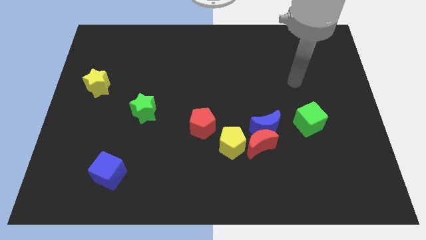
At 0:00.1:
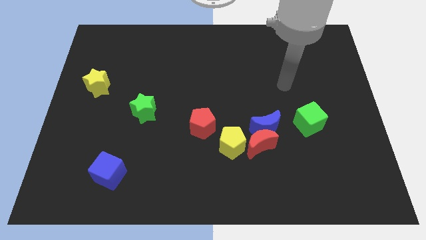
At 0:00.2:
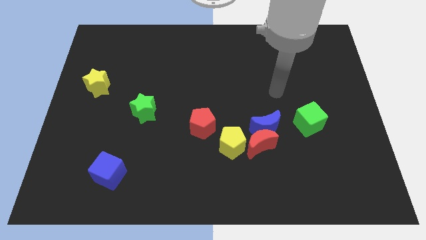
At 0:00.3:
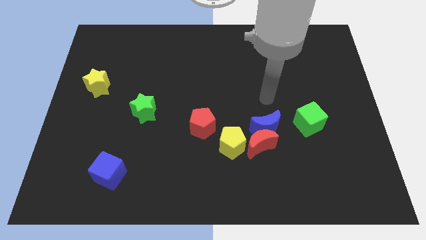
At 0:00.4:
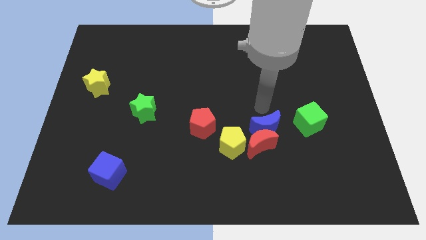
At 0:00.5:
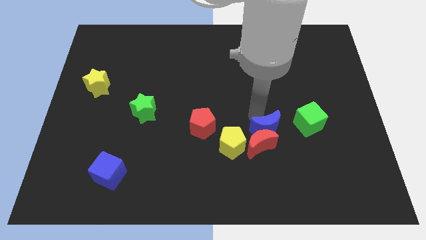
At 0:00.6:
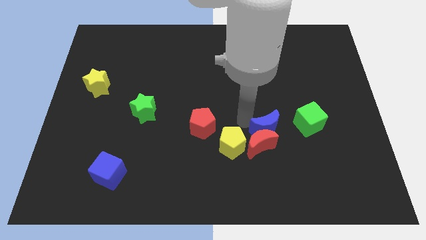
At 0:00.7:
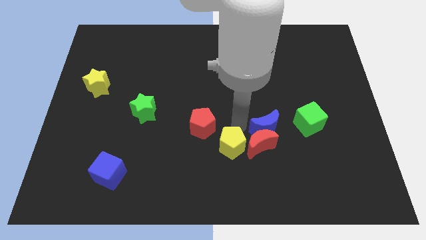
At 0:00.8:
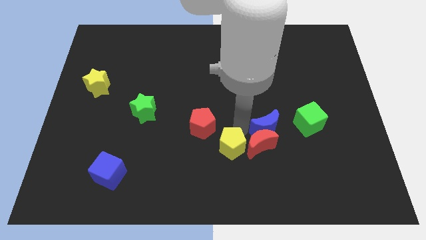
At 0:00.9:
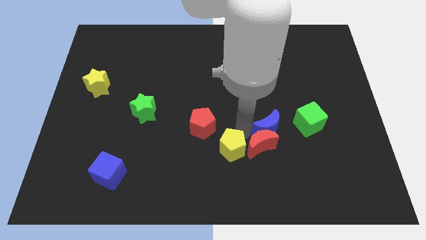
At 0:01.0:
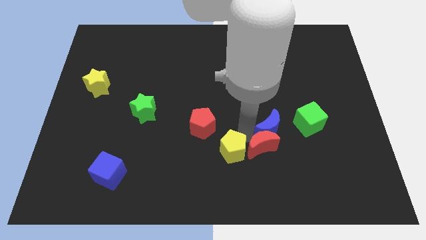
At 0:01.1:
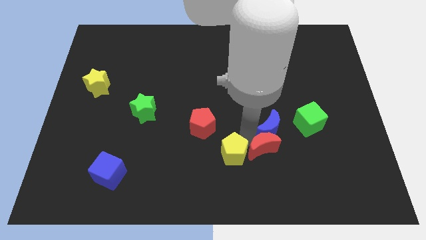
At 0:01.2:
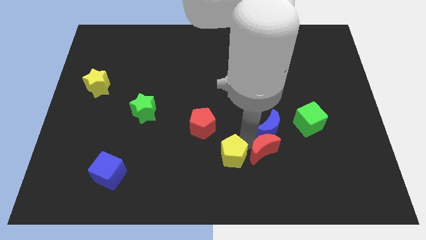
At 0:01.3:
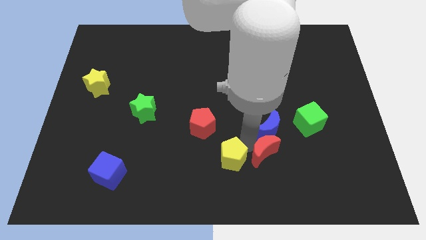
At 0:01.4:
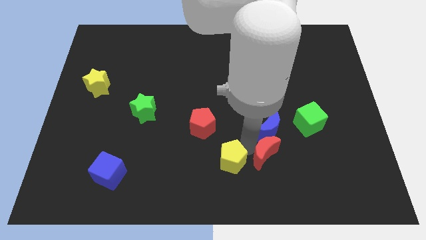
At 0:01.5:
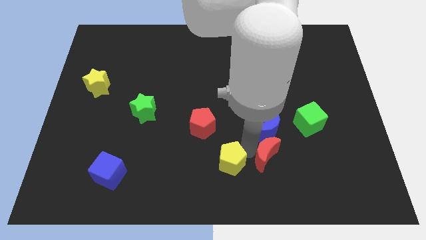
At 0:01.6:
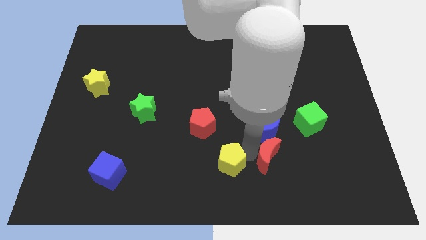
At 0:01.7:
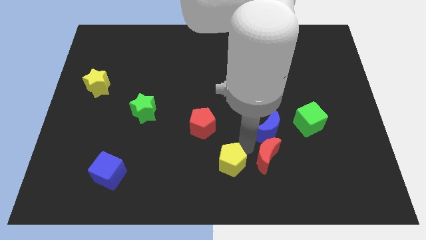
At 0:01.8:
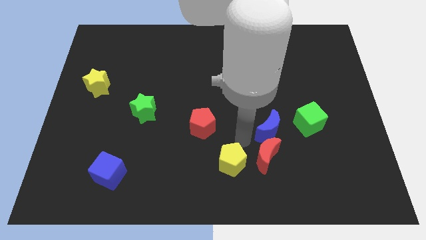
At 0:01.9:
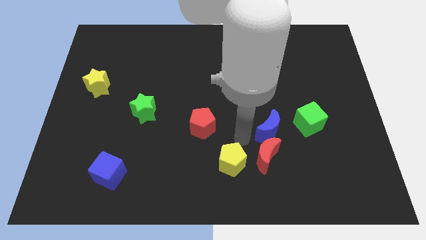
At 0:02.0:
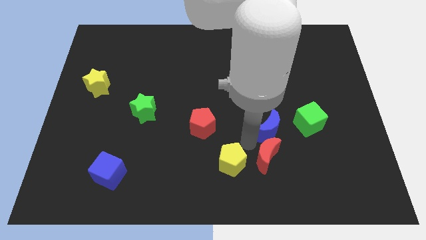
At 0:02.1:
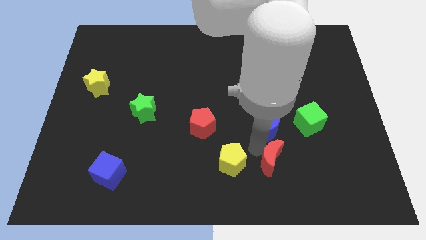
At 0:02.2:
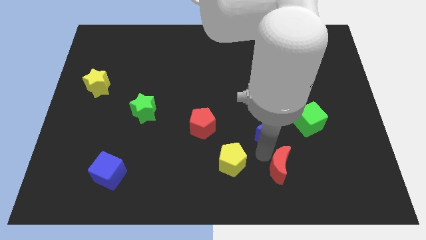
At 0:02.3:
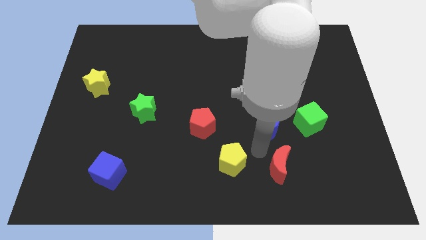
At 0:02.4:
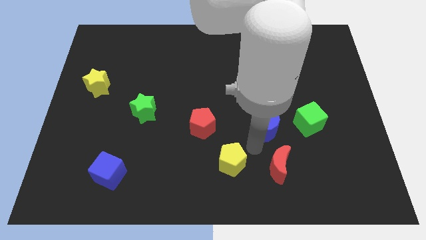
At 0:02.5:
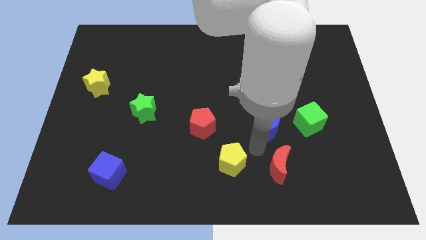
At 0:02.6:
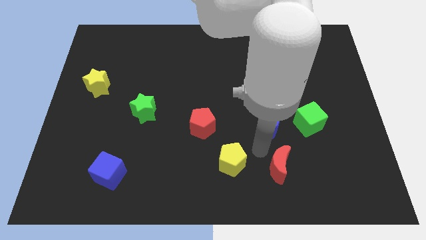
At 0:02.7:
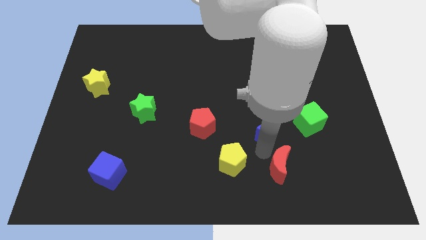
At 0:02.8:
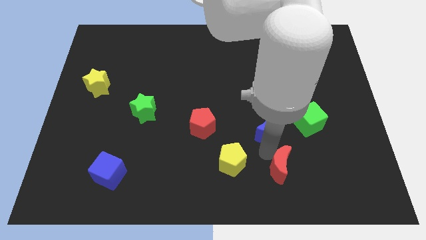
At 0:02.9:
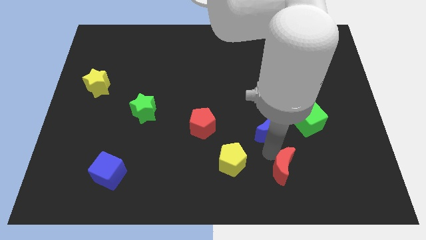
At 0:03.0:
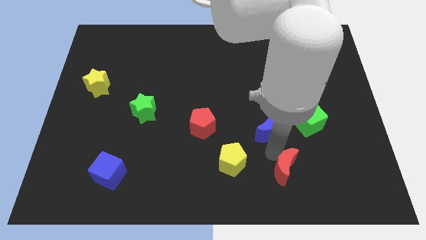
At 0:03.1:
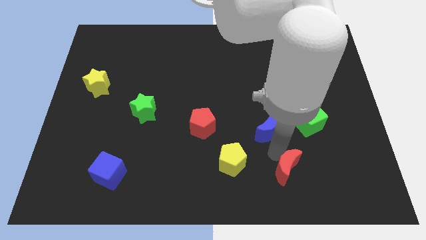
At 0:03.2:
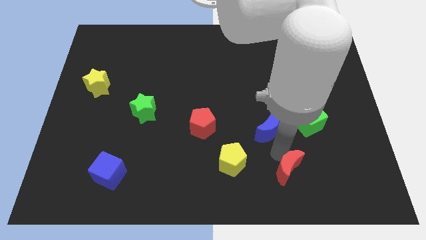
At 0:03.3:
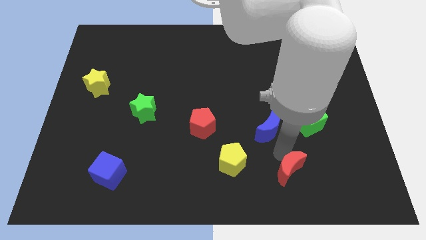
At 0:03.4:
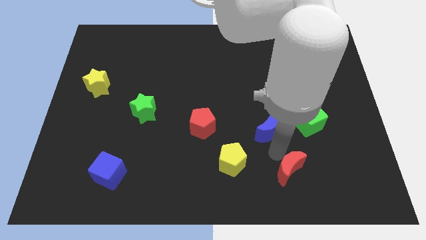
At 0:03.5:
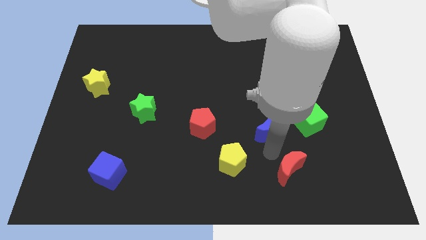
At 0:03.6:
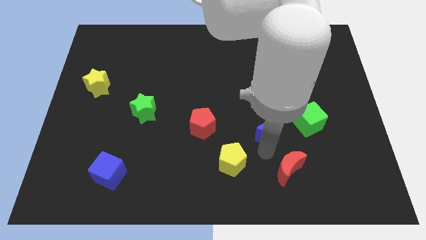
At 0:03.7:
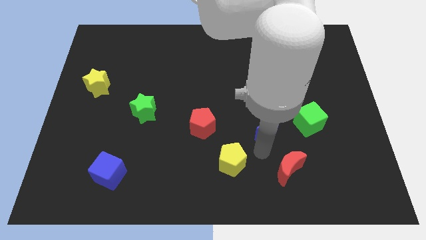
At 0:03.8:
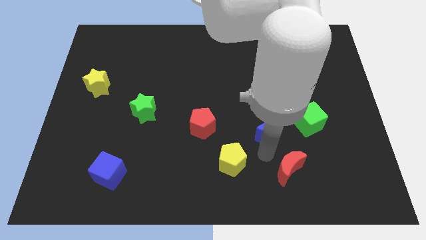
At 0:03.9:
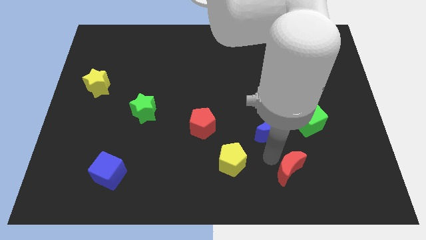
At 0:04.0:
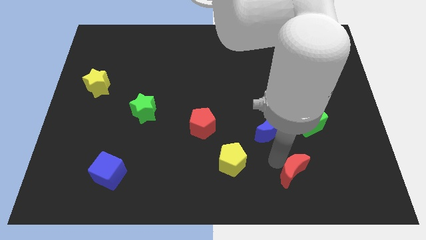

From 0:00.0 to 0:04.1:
pull the red moon apart from the blue moon and yellow pentagon

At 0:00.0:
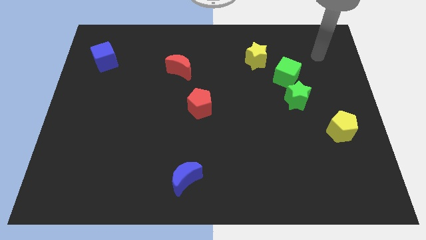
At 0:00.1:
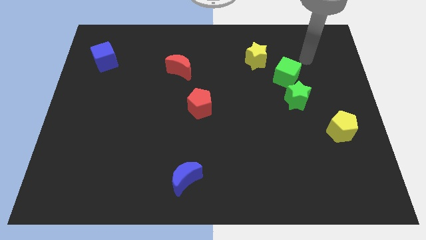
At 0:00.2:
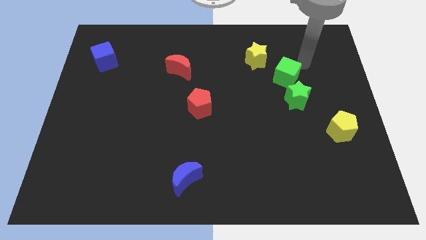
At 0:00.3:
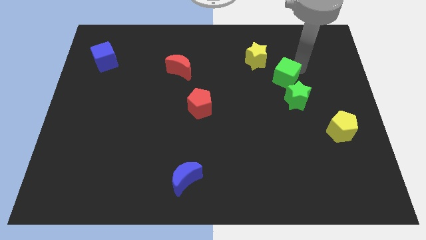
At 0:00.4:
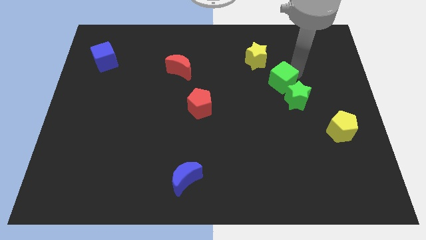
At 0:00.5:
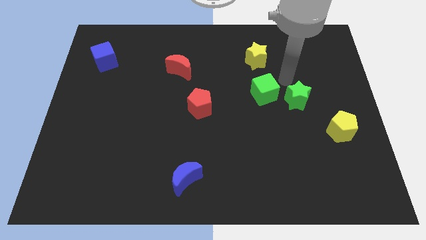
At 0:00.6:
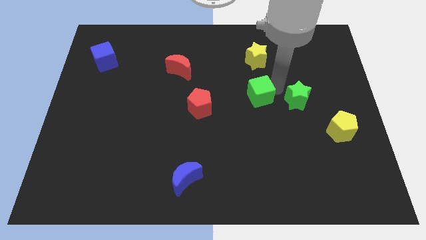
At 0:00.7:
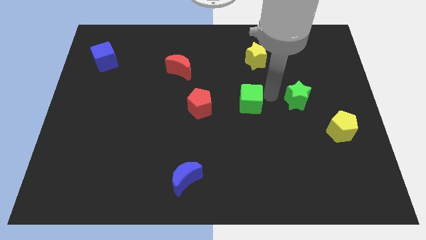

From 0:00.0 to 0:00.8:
separate the green star from the green cube

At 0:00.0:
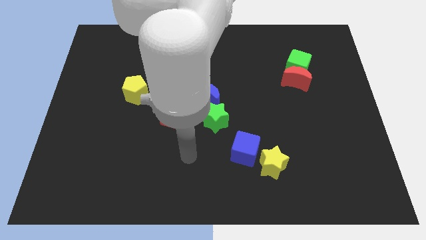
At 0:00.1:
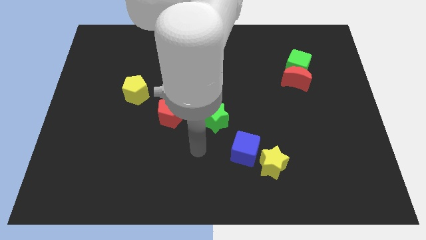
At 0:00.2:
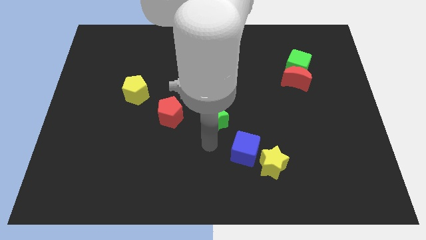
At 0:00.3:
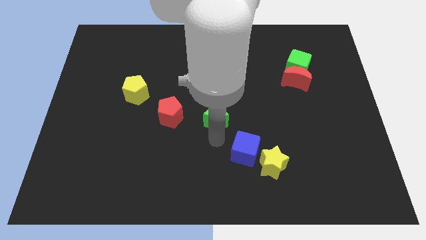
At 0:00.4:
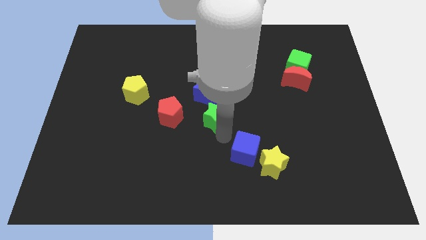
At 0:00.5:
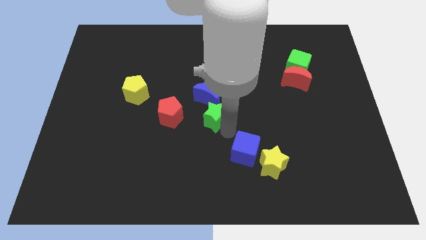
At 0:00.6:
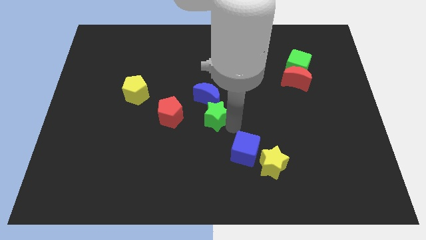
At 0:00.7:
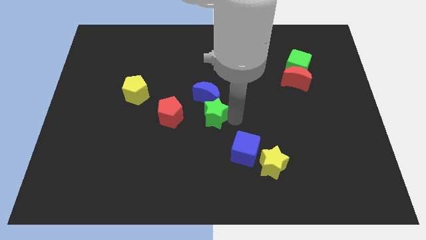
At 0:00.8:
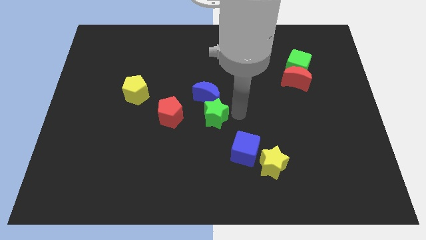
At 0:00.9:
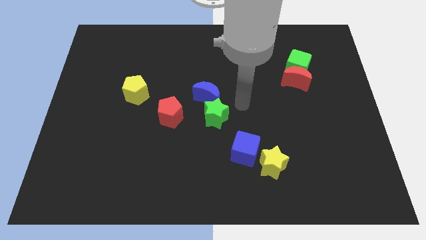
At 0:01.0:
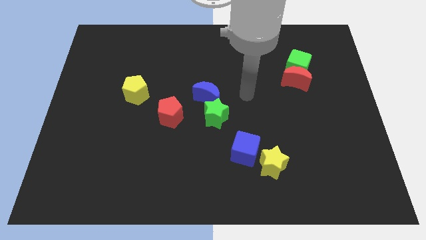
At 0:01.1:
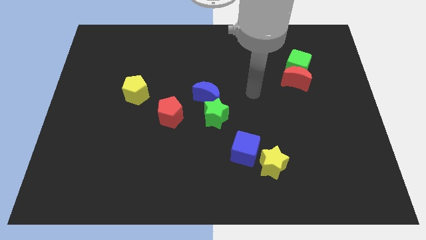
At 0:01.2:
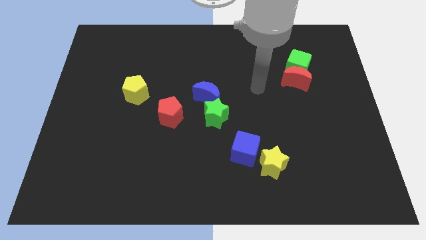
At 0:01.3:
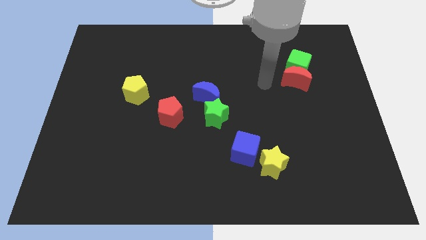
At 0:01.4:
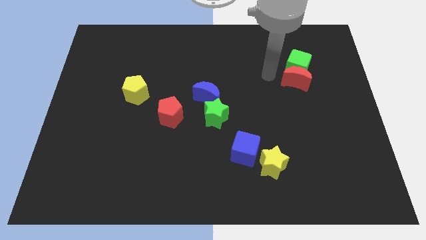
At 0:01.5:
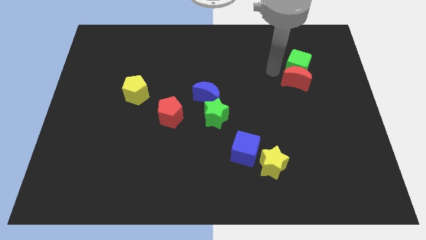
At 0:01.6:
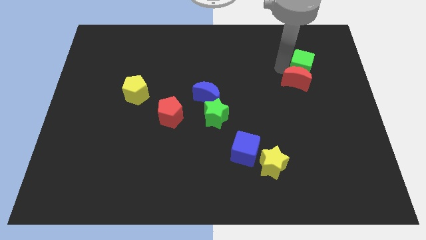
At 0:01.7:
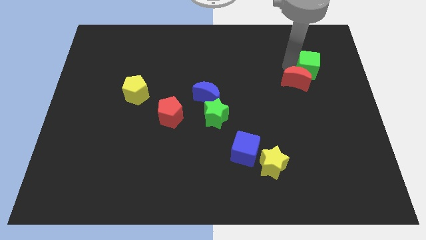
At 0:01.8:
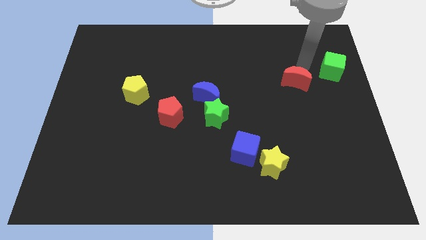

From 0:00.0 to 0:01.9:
separate the red moon from the green cube

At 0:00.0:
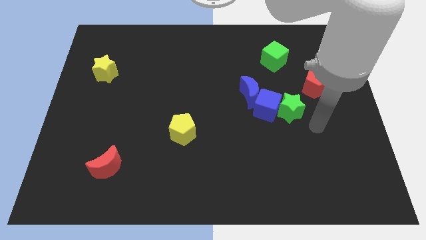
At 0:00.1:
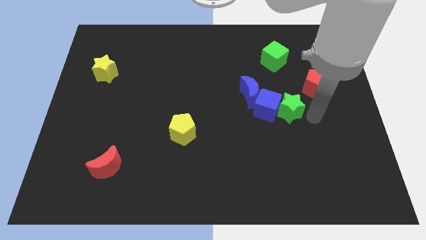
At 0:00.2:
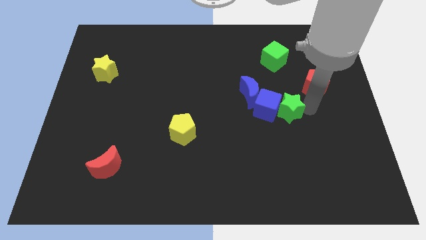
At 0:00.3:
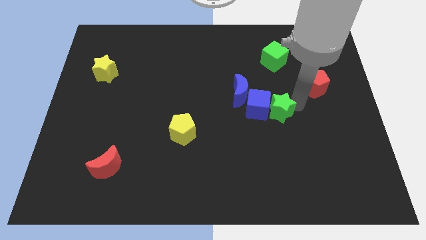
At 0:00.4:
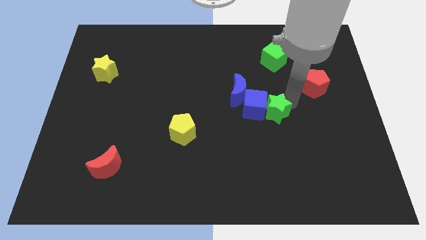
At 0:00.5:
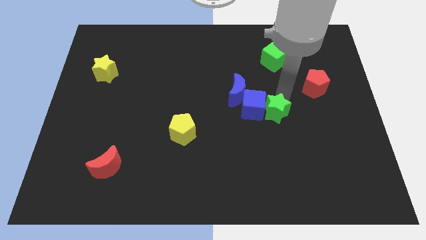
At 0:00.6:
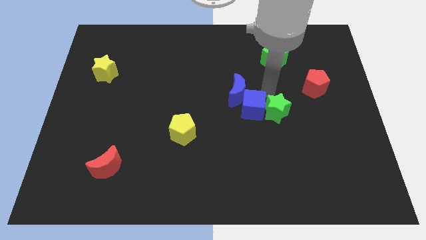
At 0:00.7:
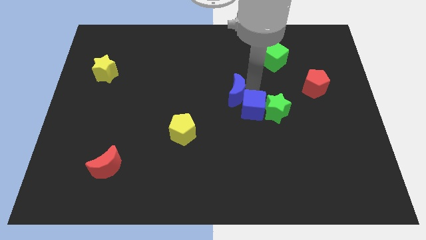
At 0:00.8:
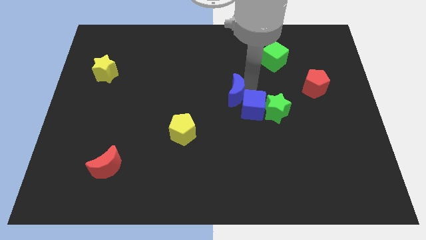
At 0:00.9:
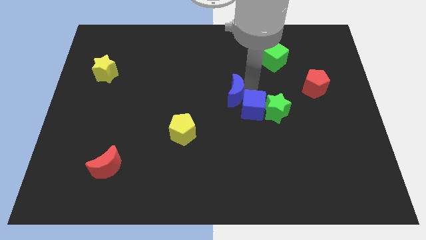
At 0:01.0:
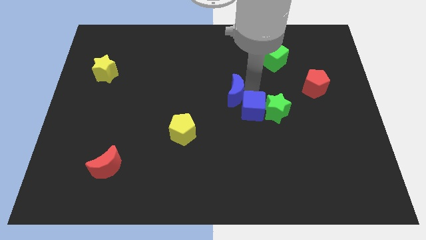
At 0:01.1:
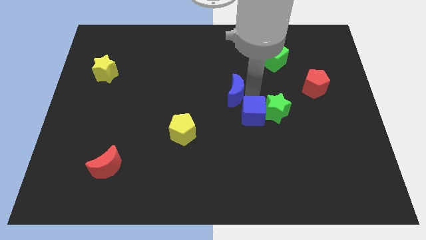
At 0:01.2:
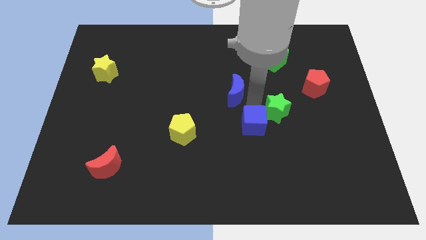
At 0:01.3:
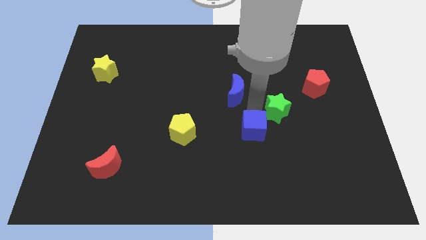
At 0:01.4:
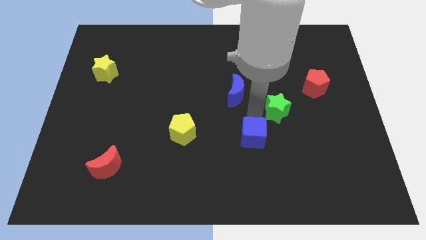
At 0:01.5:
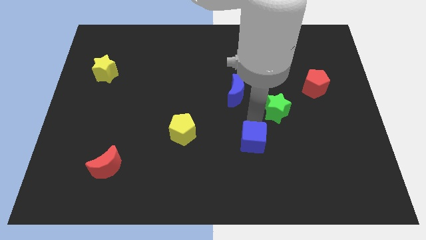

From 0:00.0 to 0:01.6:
move the blue cube away from the blue moon and green star

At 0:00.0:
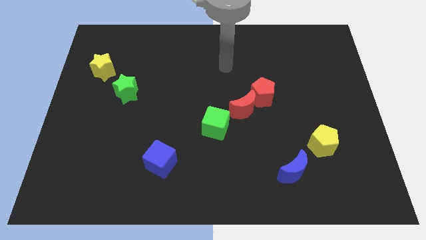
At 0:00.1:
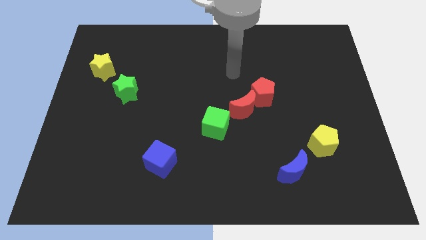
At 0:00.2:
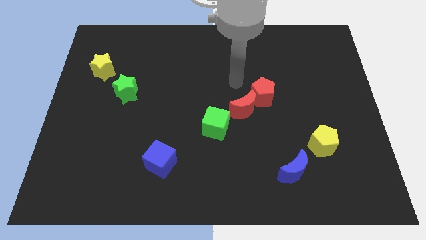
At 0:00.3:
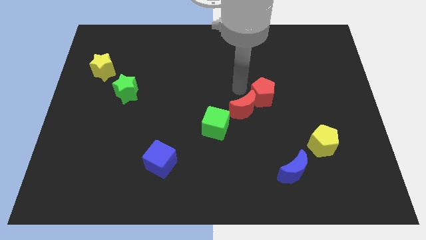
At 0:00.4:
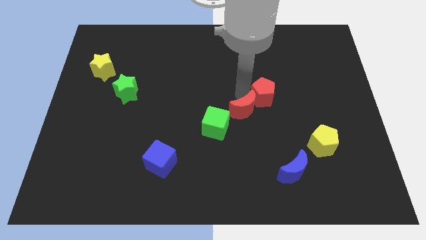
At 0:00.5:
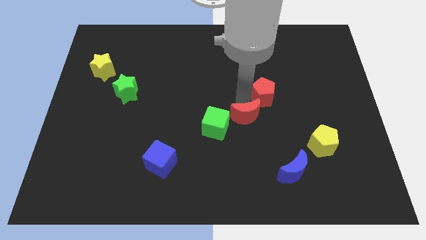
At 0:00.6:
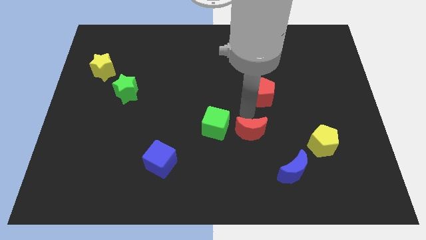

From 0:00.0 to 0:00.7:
move the red pentagon away from the red moon

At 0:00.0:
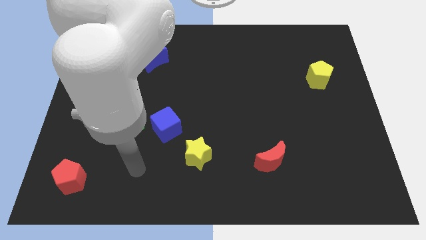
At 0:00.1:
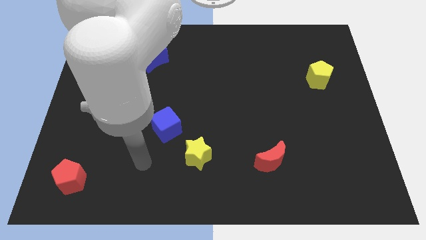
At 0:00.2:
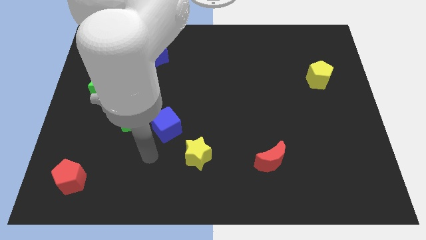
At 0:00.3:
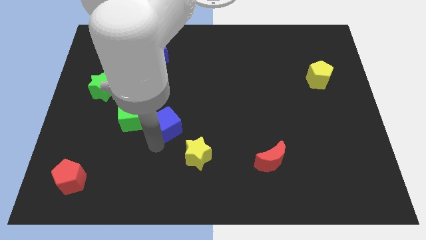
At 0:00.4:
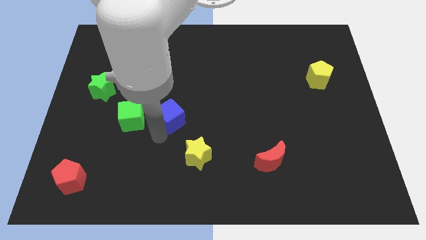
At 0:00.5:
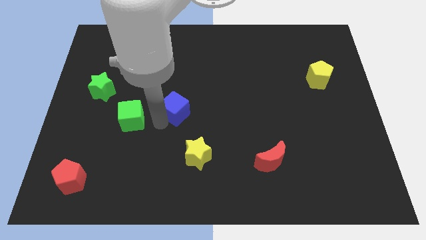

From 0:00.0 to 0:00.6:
separate the green cube from the blue cube
